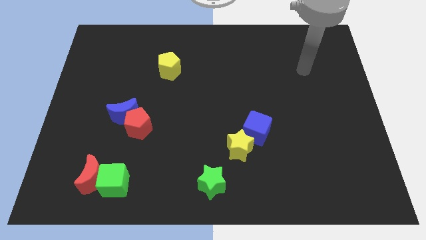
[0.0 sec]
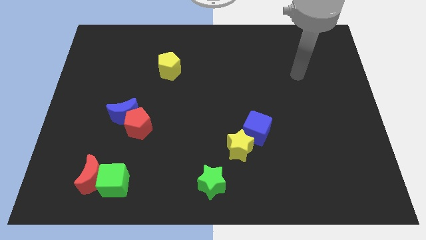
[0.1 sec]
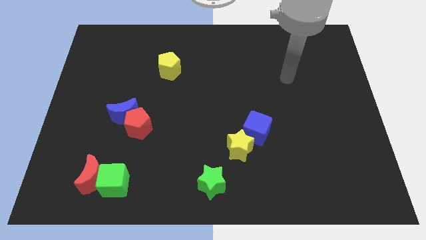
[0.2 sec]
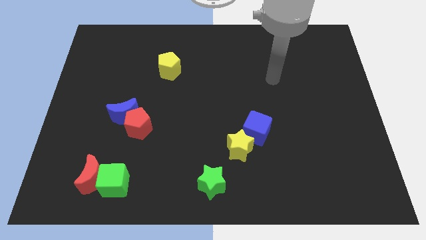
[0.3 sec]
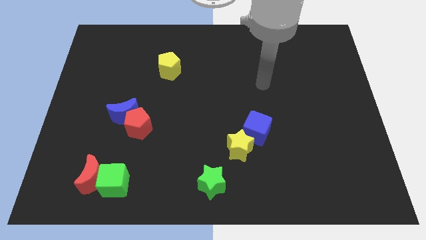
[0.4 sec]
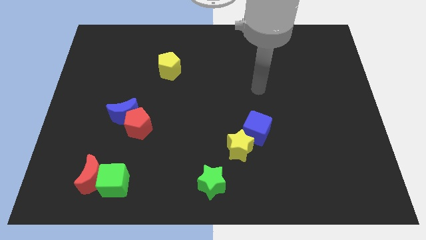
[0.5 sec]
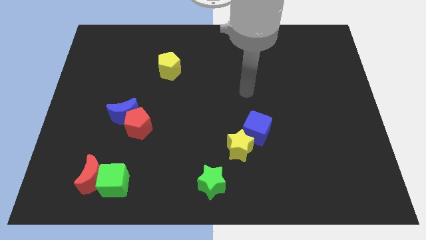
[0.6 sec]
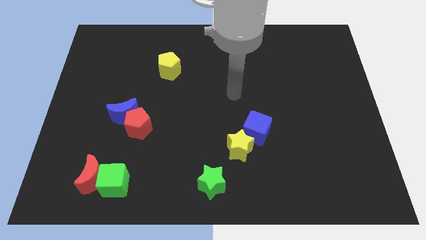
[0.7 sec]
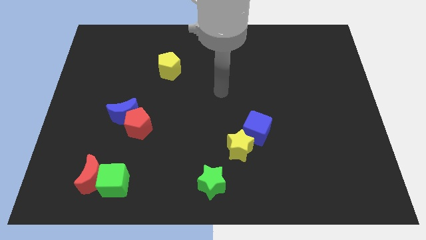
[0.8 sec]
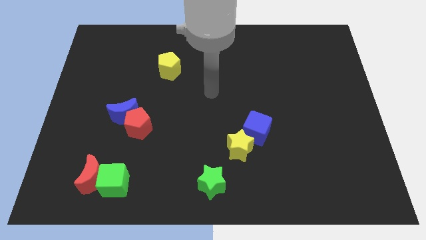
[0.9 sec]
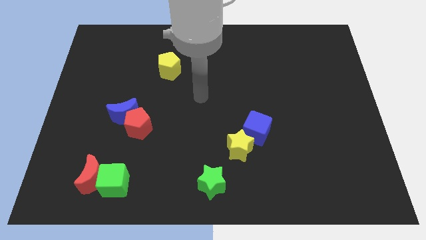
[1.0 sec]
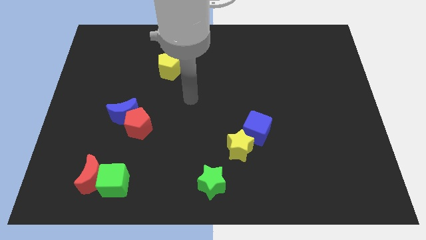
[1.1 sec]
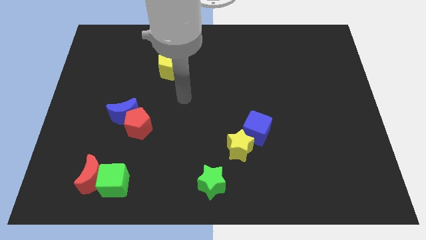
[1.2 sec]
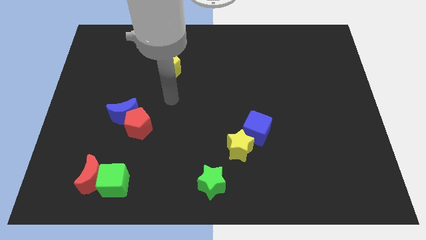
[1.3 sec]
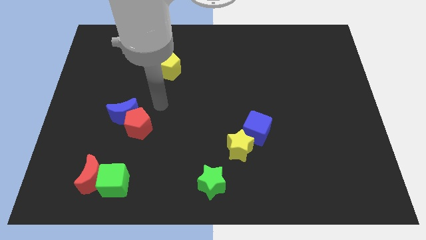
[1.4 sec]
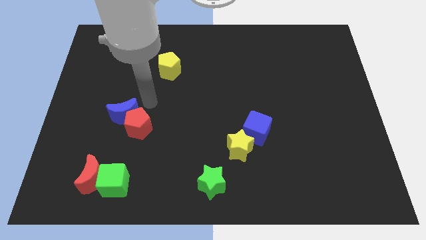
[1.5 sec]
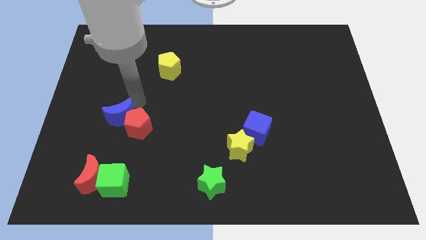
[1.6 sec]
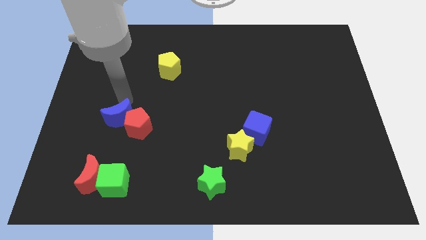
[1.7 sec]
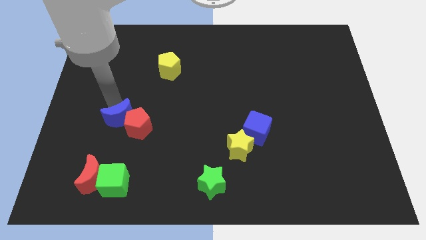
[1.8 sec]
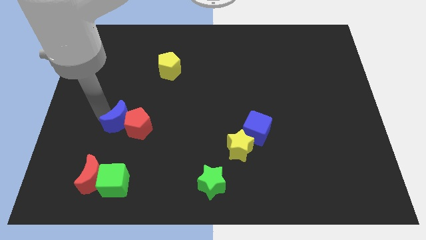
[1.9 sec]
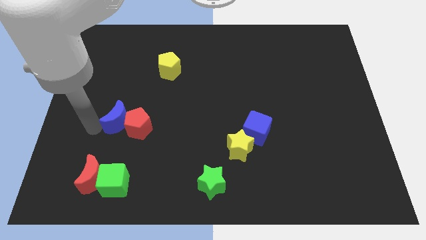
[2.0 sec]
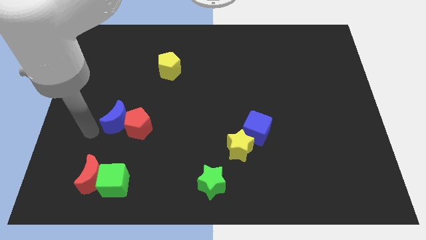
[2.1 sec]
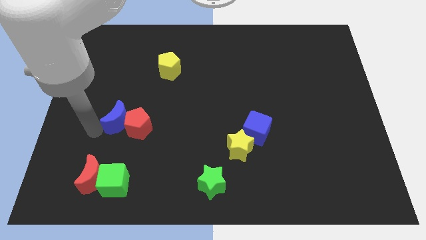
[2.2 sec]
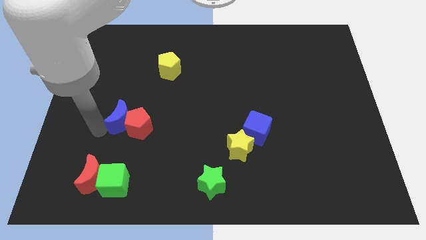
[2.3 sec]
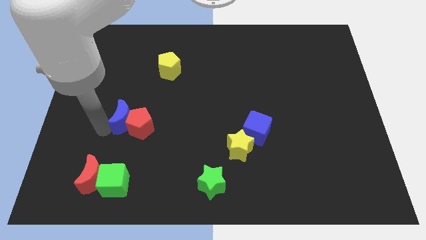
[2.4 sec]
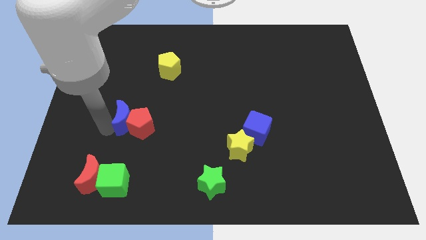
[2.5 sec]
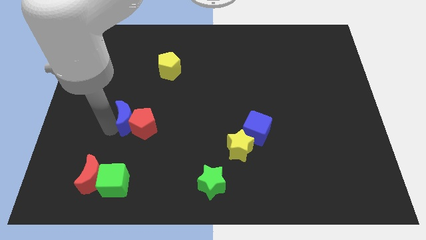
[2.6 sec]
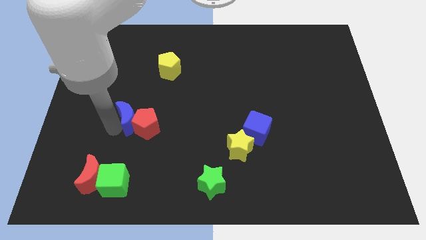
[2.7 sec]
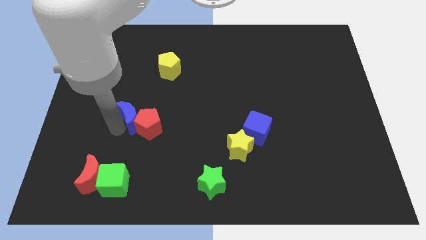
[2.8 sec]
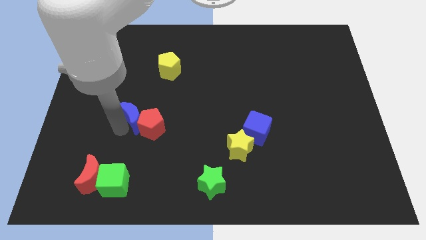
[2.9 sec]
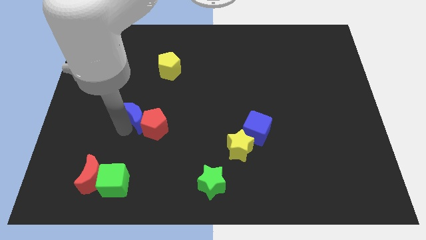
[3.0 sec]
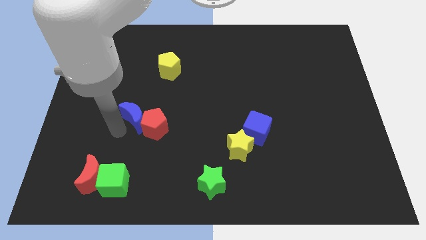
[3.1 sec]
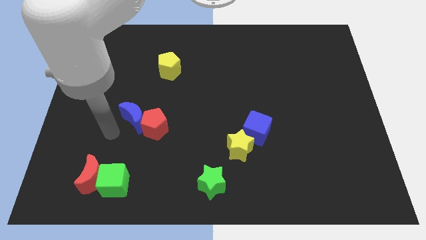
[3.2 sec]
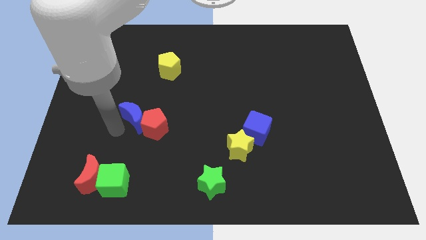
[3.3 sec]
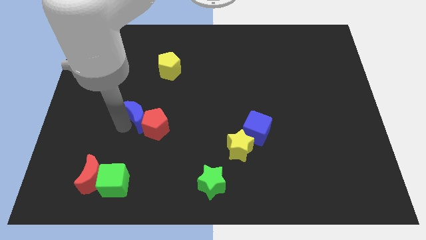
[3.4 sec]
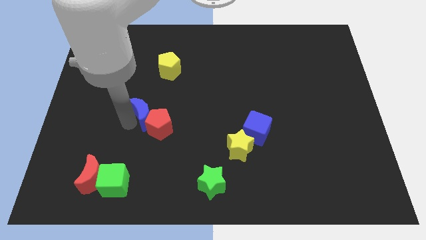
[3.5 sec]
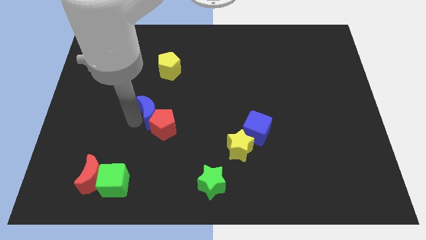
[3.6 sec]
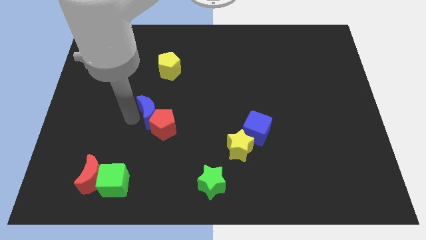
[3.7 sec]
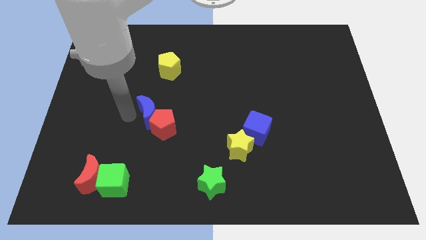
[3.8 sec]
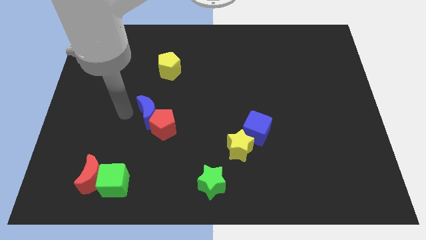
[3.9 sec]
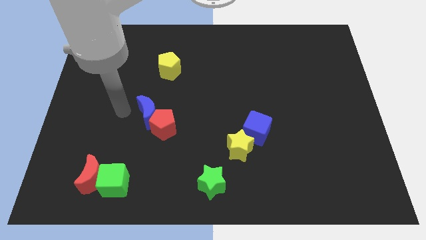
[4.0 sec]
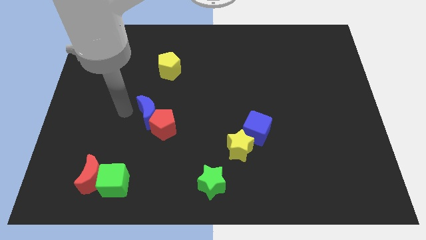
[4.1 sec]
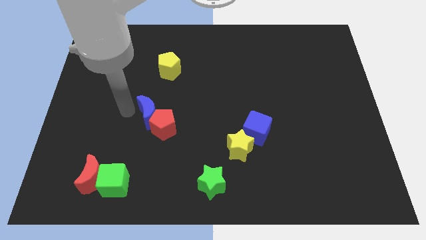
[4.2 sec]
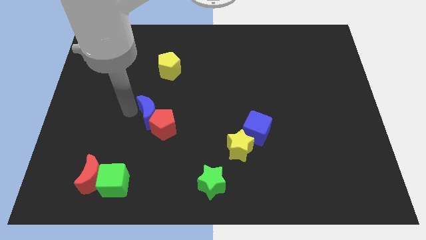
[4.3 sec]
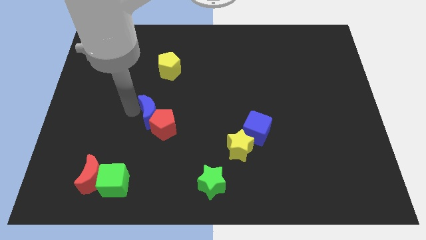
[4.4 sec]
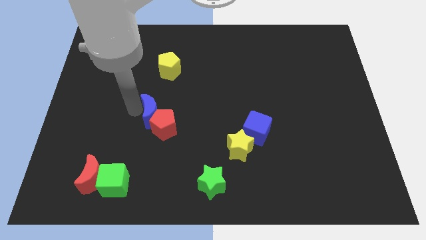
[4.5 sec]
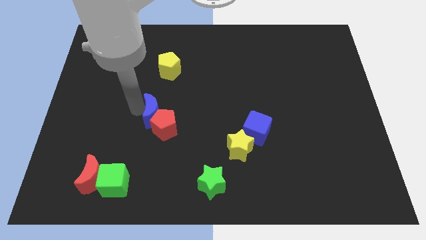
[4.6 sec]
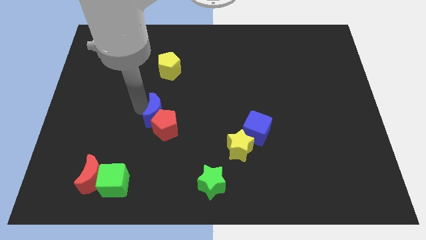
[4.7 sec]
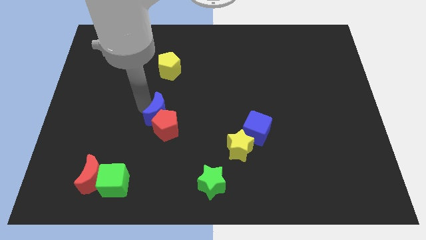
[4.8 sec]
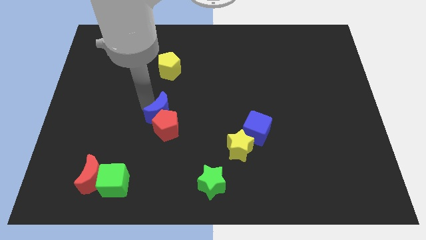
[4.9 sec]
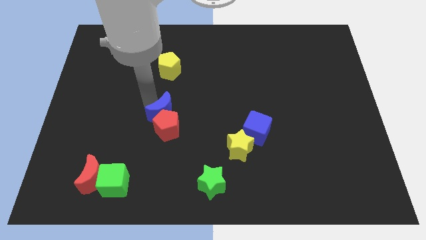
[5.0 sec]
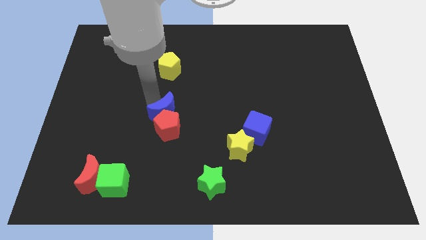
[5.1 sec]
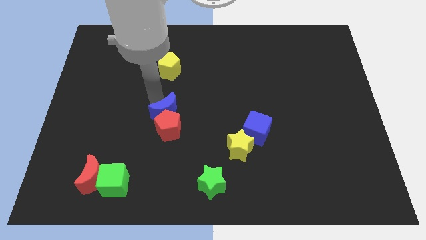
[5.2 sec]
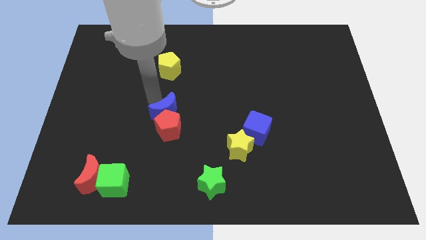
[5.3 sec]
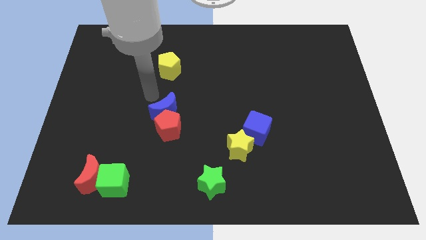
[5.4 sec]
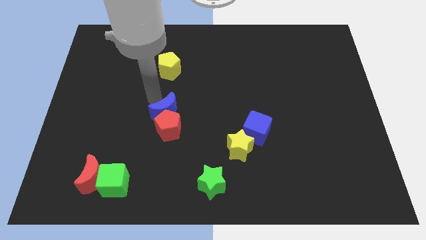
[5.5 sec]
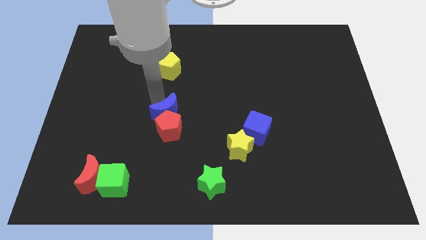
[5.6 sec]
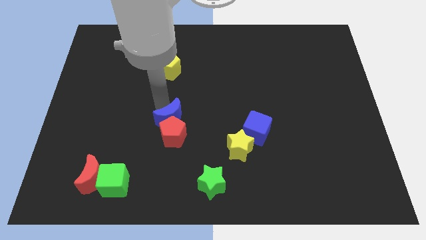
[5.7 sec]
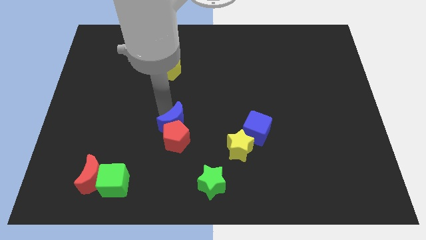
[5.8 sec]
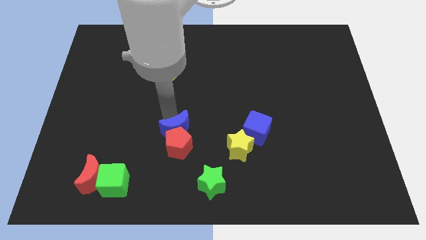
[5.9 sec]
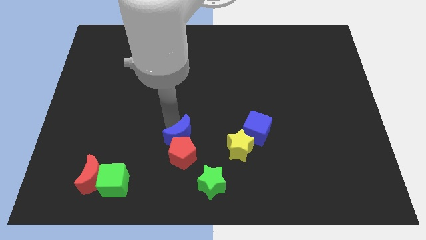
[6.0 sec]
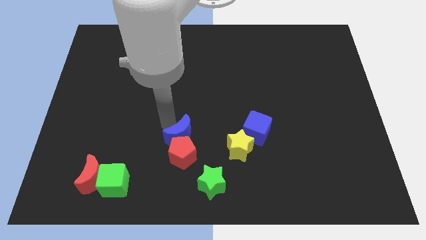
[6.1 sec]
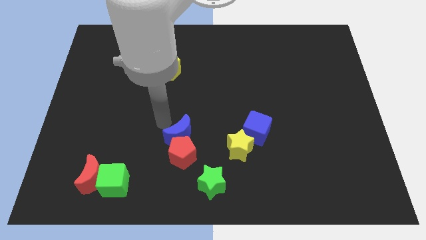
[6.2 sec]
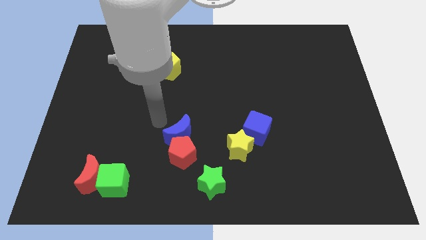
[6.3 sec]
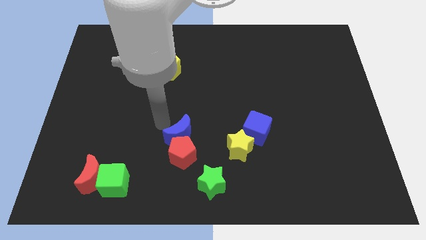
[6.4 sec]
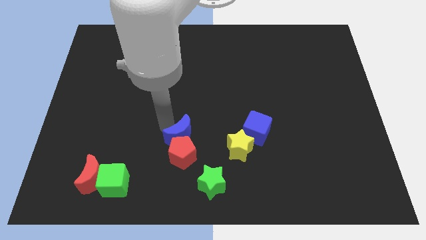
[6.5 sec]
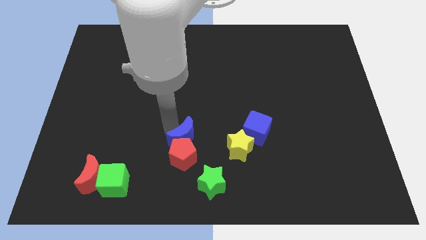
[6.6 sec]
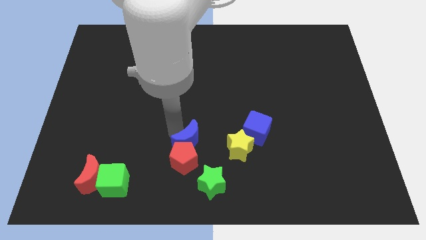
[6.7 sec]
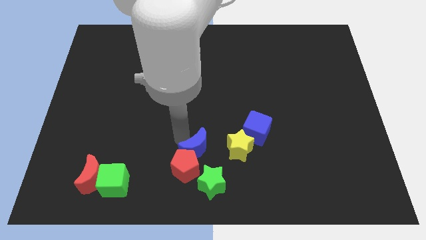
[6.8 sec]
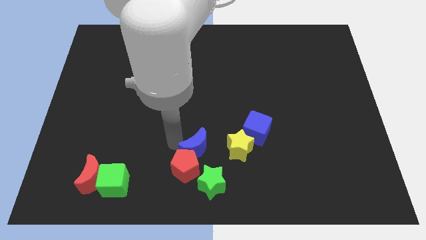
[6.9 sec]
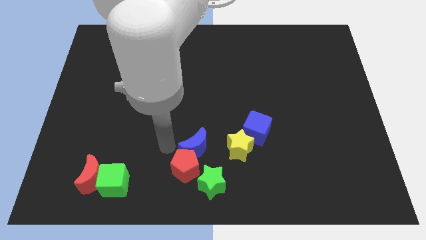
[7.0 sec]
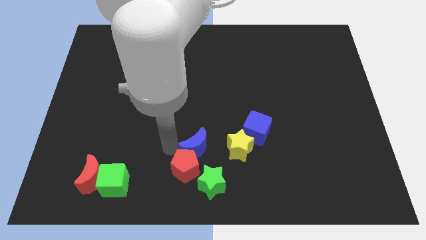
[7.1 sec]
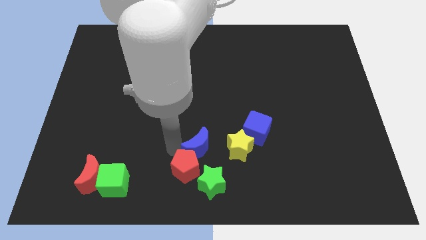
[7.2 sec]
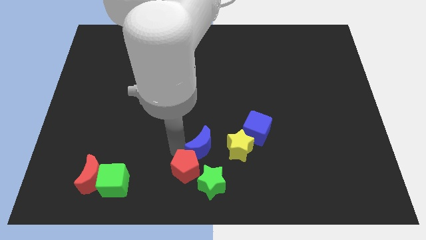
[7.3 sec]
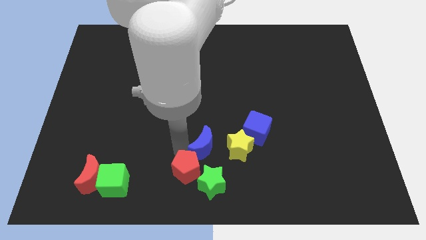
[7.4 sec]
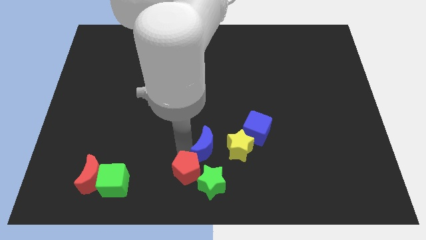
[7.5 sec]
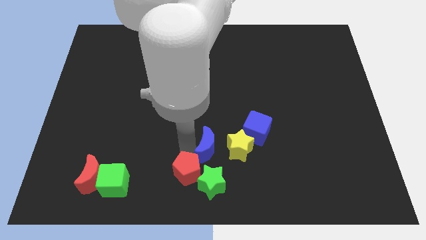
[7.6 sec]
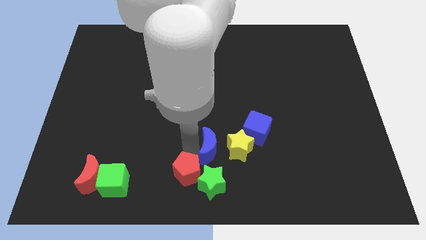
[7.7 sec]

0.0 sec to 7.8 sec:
move the blue moon to the bottom left of the blue cube
